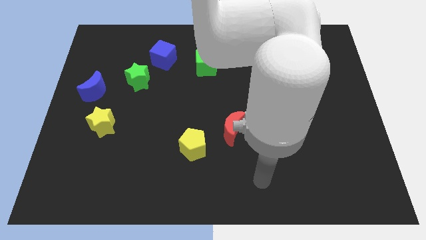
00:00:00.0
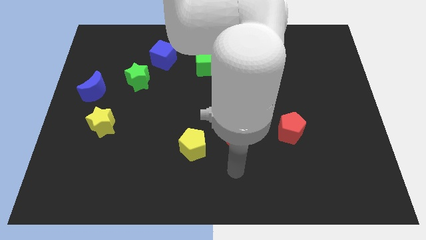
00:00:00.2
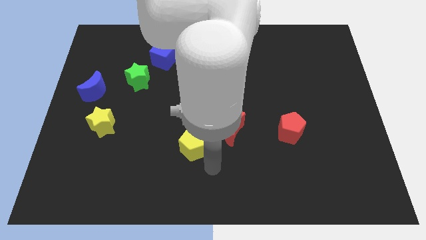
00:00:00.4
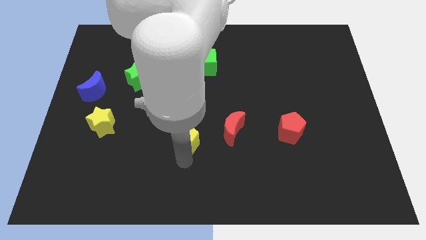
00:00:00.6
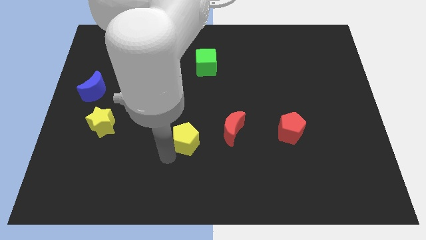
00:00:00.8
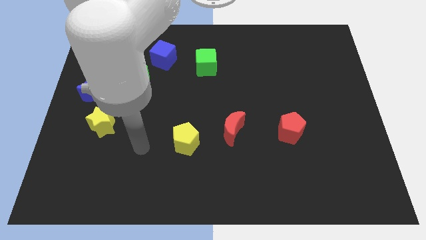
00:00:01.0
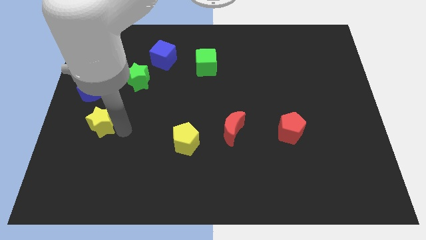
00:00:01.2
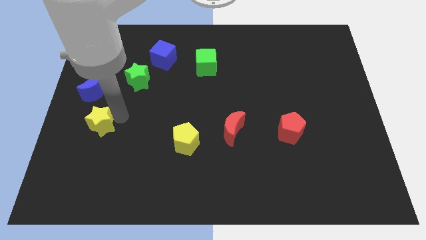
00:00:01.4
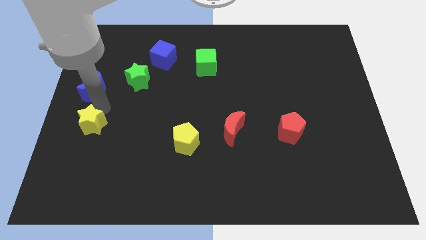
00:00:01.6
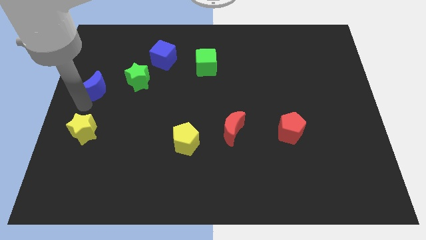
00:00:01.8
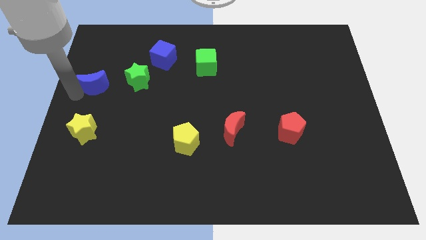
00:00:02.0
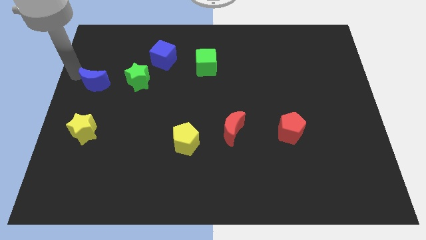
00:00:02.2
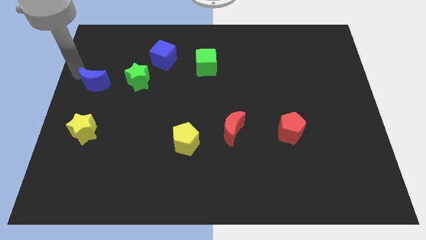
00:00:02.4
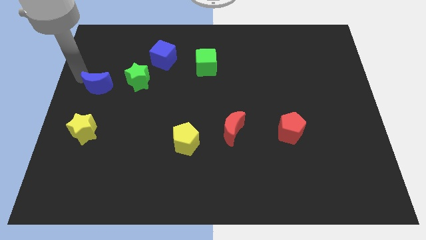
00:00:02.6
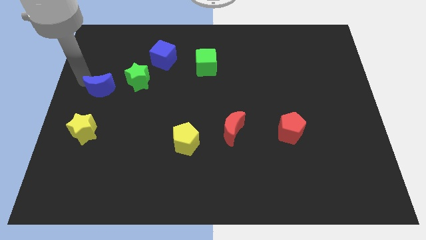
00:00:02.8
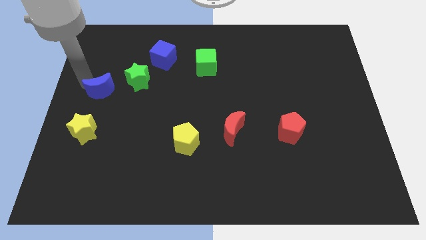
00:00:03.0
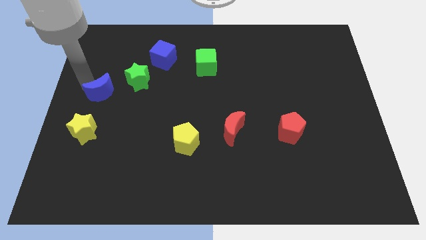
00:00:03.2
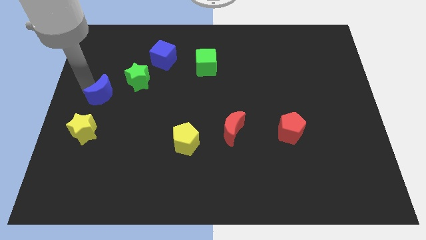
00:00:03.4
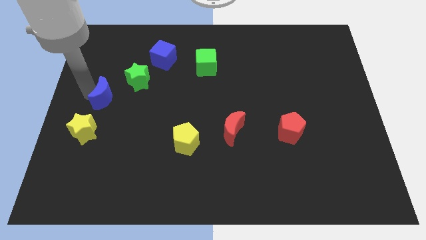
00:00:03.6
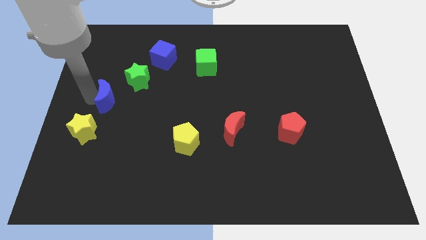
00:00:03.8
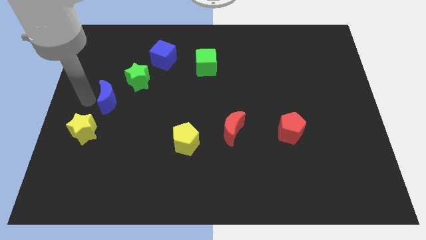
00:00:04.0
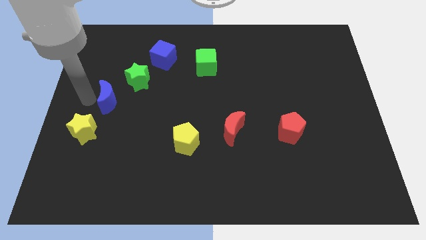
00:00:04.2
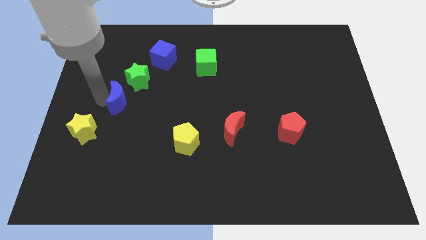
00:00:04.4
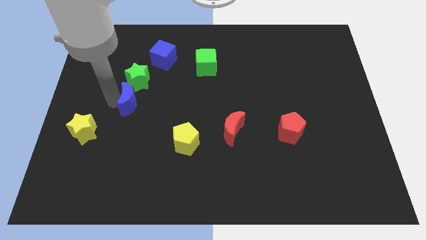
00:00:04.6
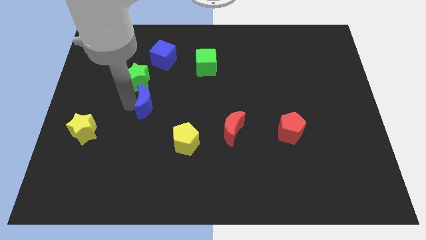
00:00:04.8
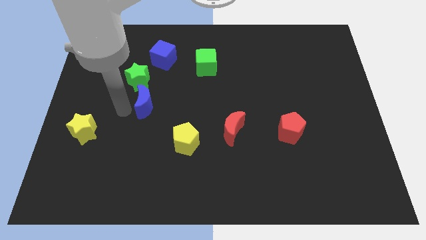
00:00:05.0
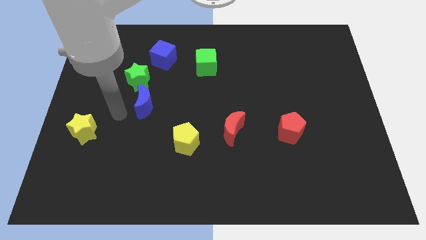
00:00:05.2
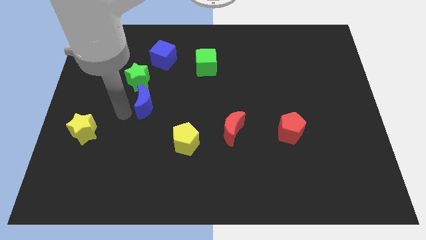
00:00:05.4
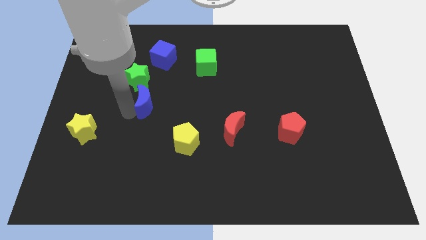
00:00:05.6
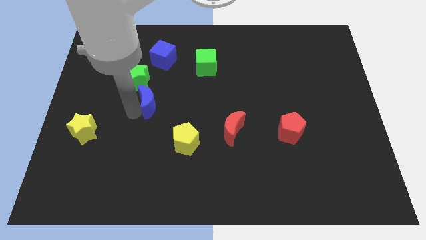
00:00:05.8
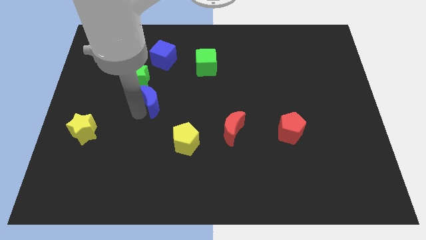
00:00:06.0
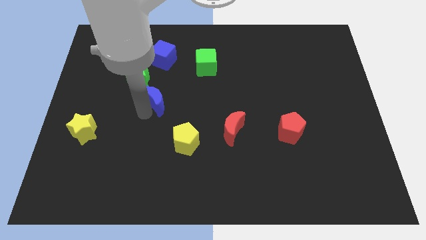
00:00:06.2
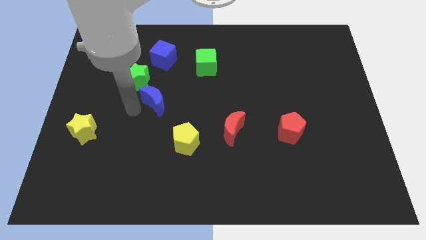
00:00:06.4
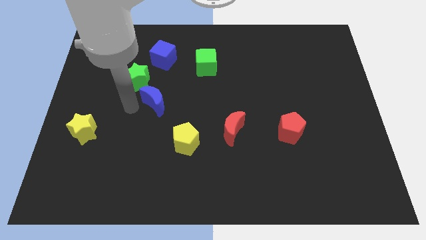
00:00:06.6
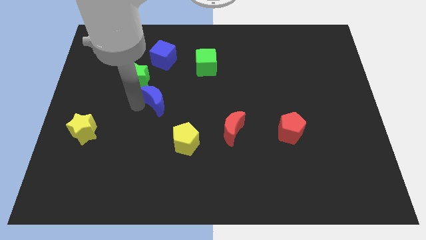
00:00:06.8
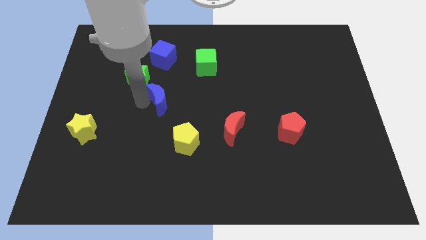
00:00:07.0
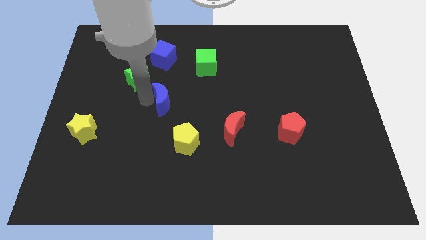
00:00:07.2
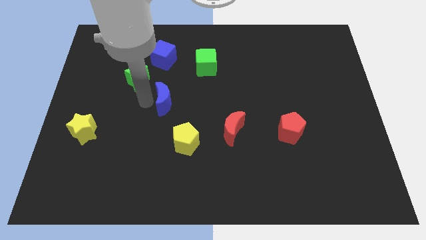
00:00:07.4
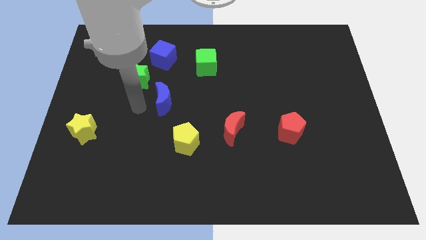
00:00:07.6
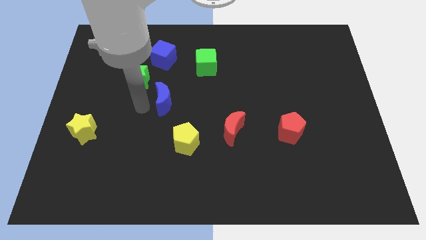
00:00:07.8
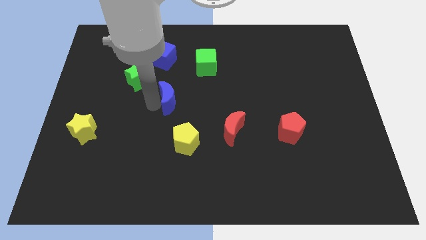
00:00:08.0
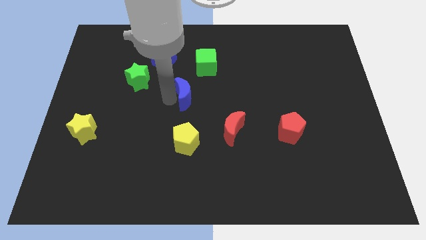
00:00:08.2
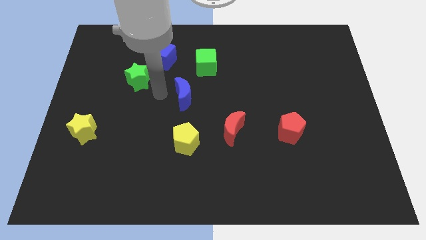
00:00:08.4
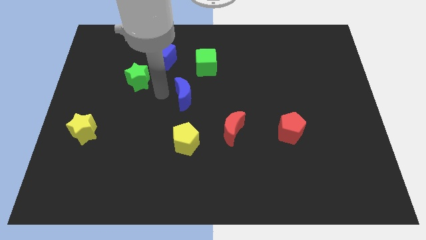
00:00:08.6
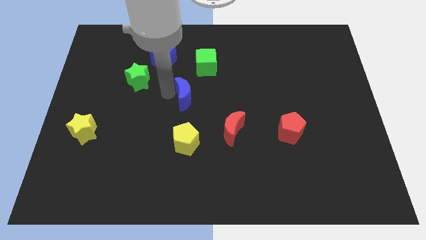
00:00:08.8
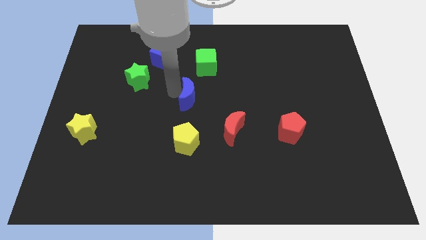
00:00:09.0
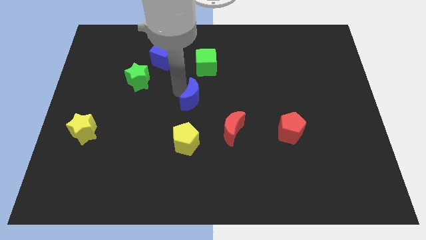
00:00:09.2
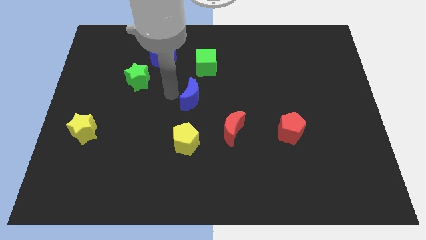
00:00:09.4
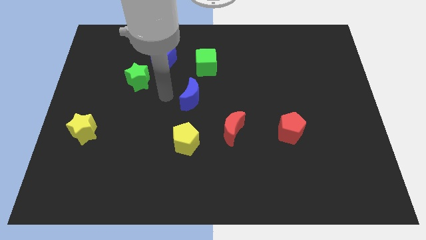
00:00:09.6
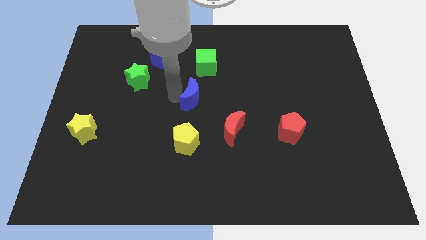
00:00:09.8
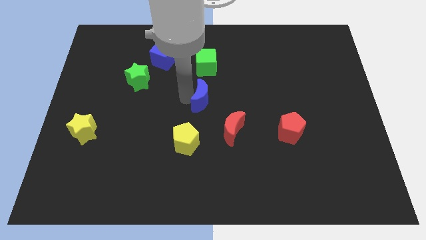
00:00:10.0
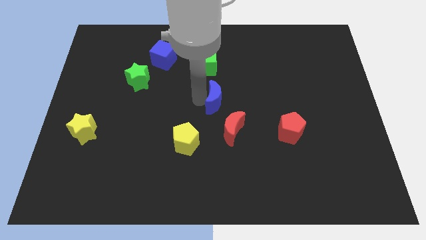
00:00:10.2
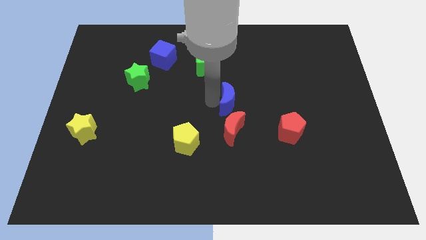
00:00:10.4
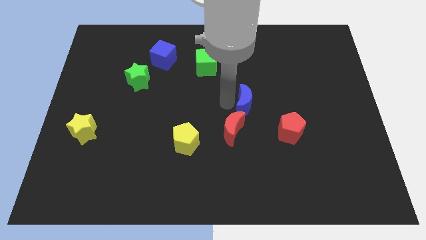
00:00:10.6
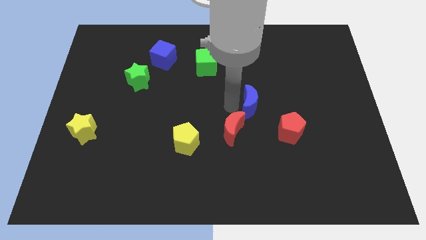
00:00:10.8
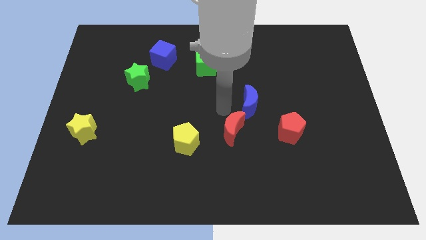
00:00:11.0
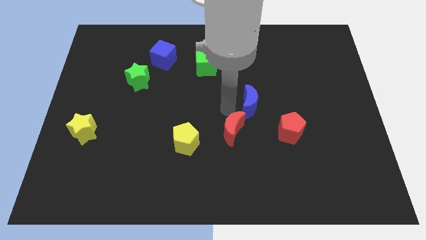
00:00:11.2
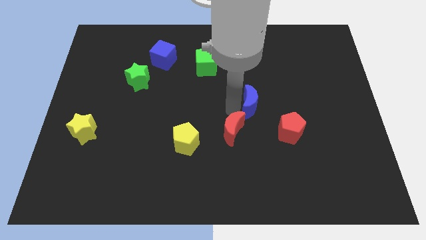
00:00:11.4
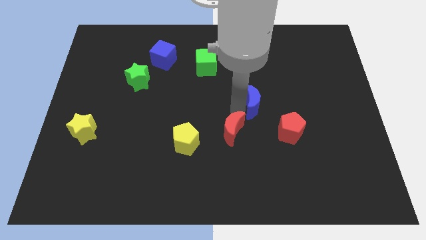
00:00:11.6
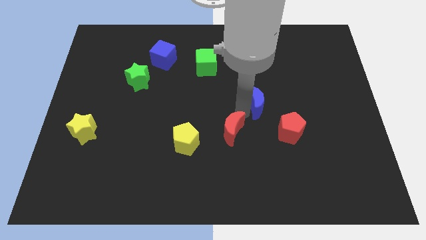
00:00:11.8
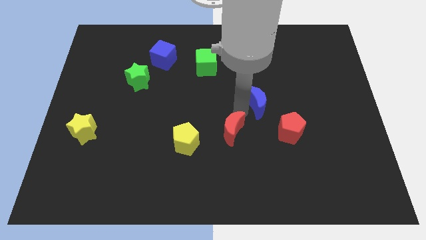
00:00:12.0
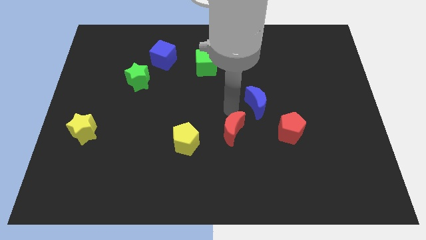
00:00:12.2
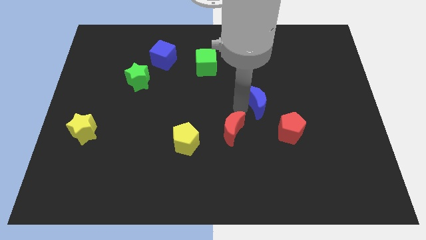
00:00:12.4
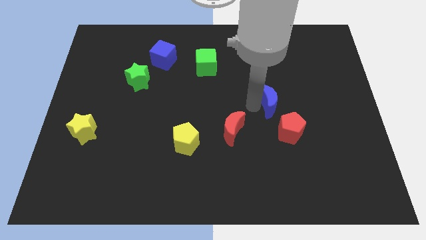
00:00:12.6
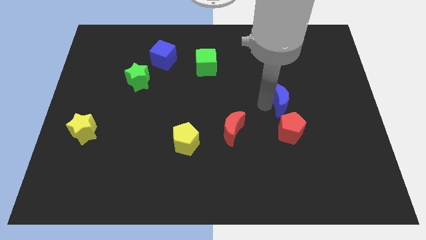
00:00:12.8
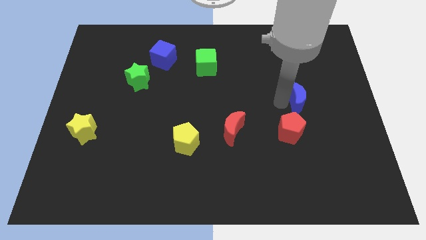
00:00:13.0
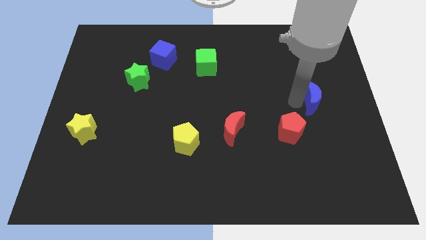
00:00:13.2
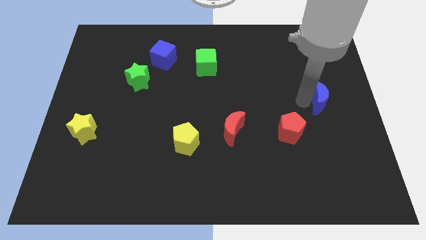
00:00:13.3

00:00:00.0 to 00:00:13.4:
put the blue moon to the right side
